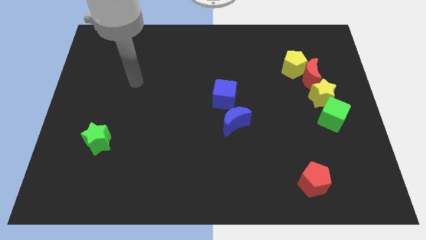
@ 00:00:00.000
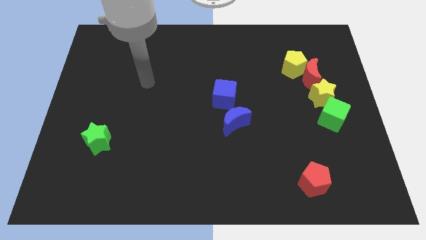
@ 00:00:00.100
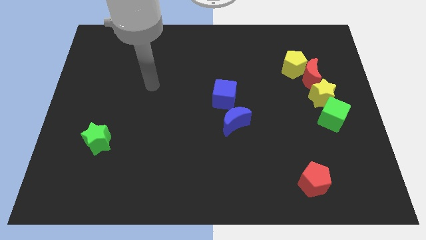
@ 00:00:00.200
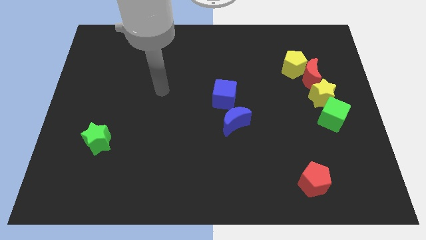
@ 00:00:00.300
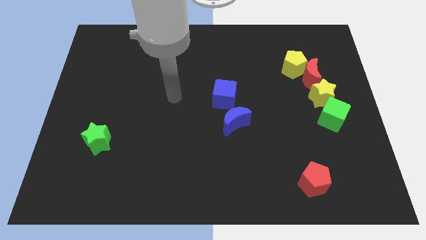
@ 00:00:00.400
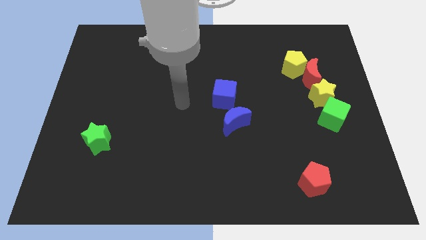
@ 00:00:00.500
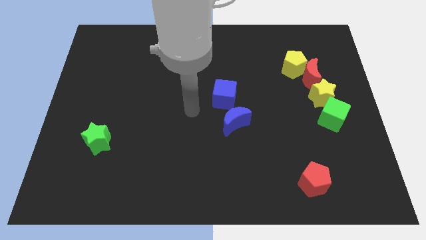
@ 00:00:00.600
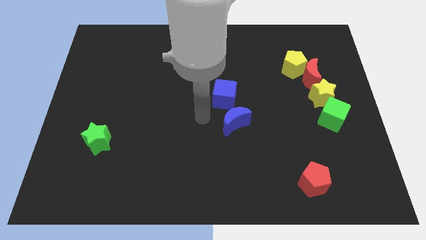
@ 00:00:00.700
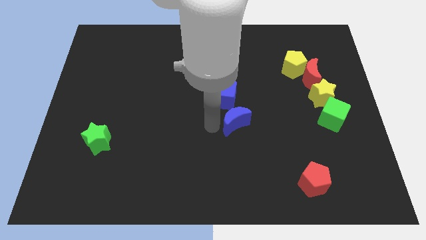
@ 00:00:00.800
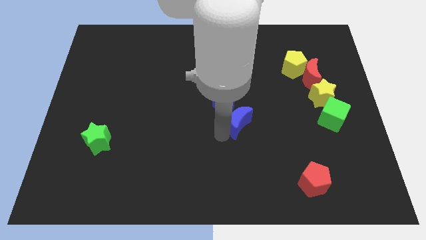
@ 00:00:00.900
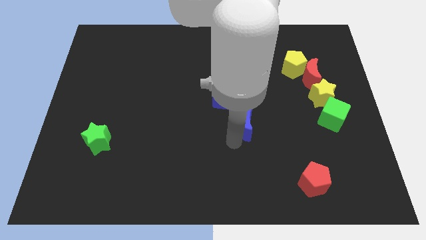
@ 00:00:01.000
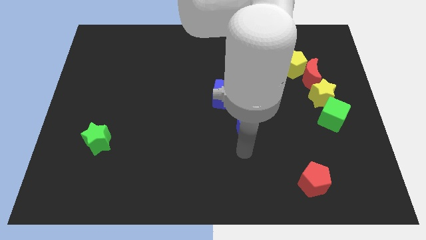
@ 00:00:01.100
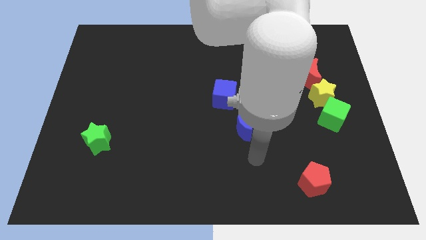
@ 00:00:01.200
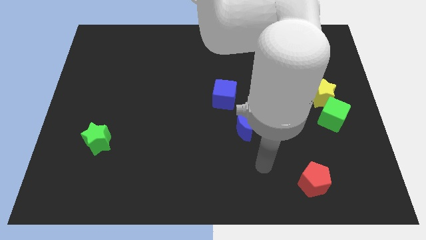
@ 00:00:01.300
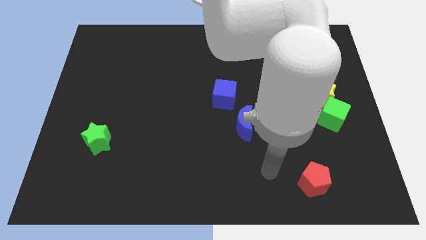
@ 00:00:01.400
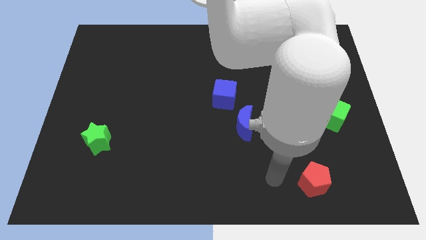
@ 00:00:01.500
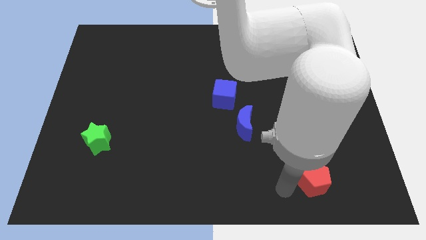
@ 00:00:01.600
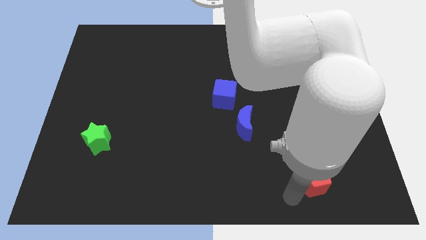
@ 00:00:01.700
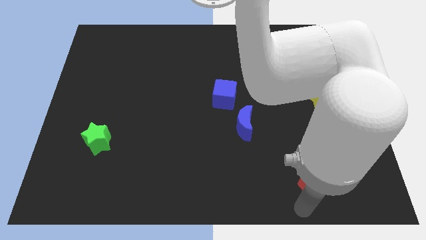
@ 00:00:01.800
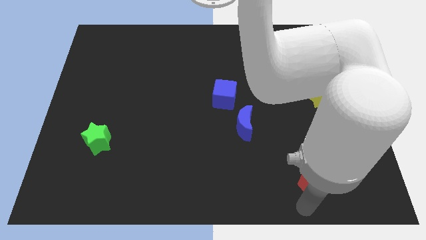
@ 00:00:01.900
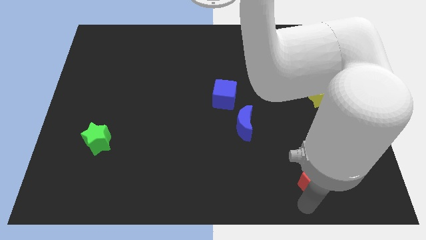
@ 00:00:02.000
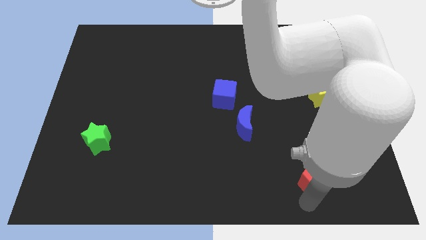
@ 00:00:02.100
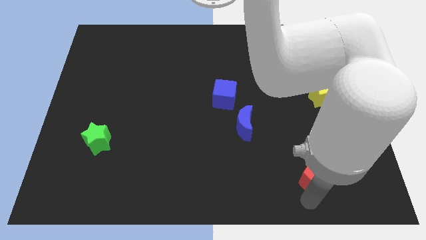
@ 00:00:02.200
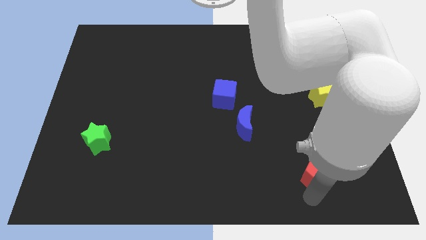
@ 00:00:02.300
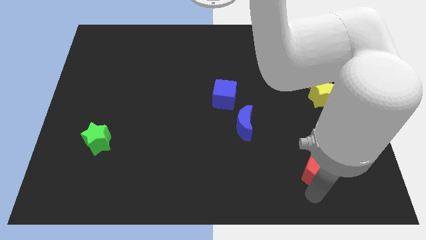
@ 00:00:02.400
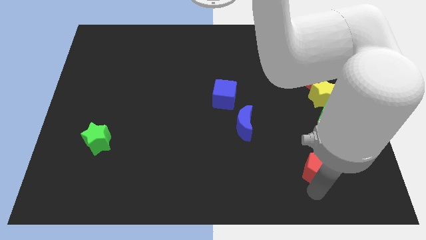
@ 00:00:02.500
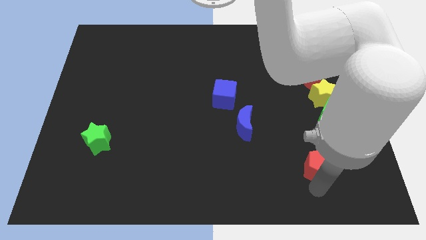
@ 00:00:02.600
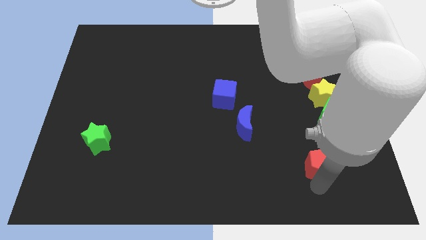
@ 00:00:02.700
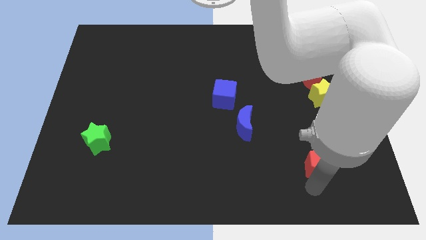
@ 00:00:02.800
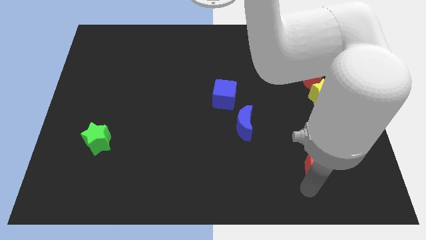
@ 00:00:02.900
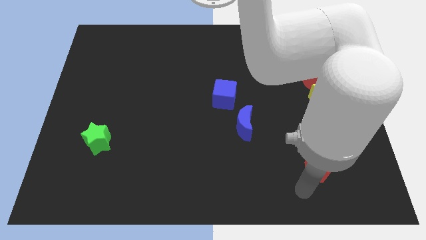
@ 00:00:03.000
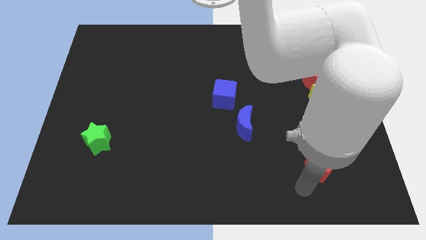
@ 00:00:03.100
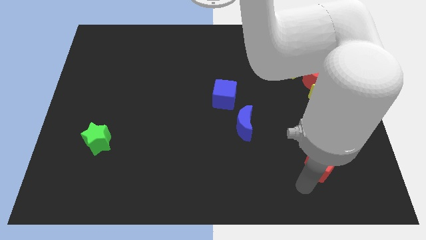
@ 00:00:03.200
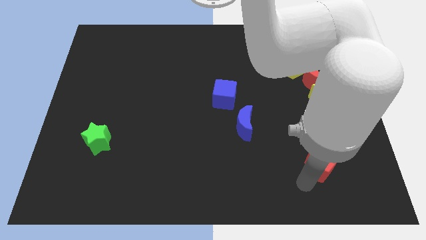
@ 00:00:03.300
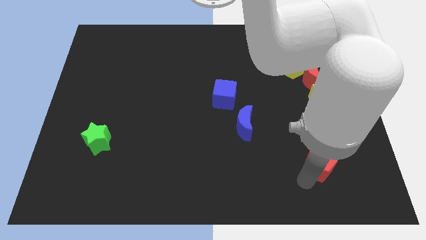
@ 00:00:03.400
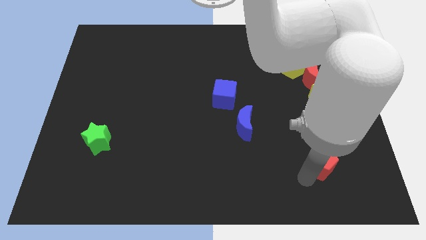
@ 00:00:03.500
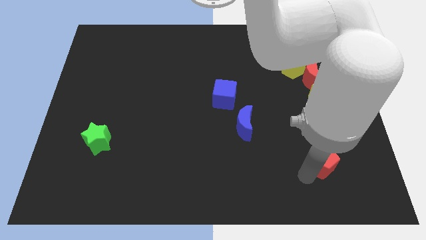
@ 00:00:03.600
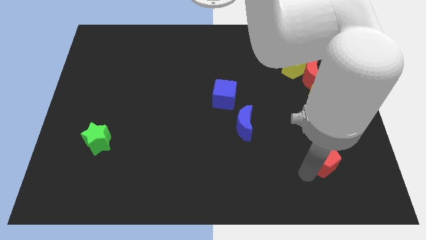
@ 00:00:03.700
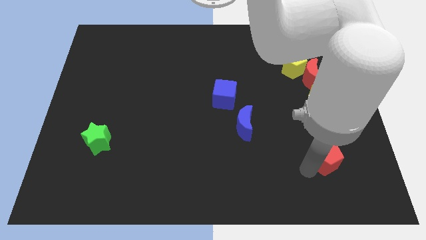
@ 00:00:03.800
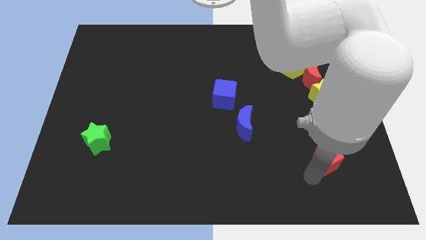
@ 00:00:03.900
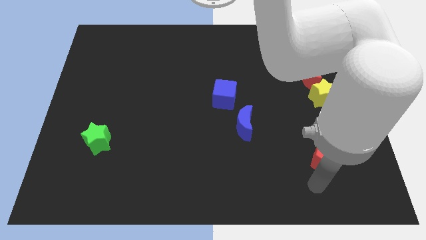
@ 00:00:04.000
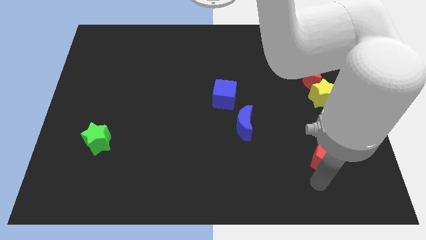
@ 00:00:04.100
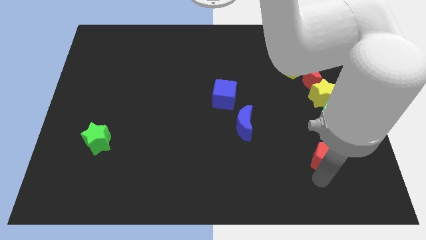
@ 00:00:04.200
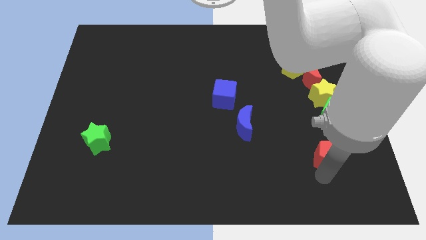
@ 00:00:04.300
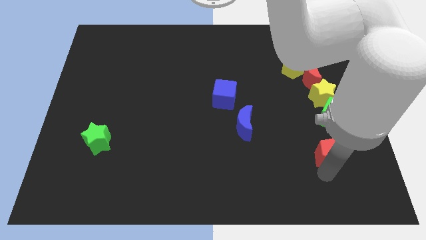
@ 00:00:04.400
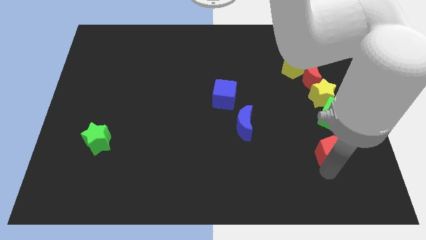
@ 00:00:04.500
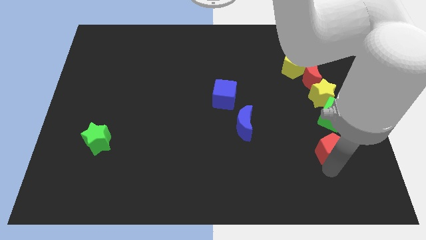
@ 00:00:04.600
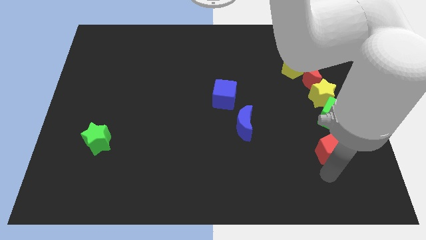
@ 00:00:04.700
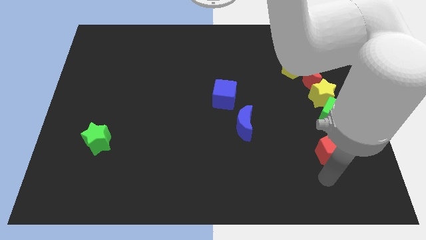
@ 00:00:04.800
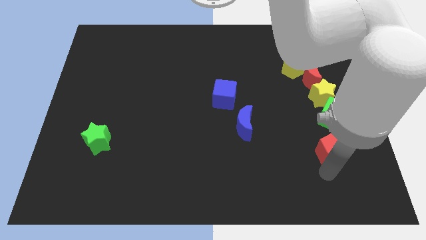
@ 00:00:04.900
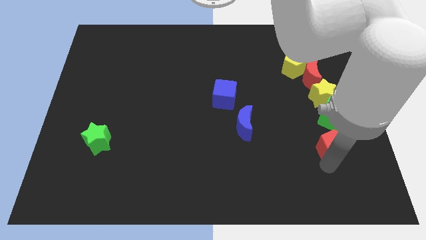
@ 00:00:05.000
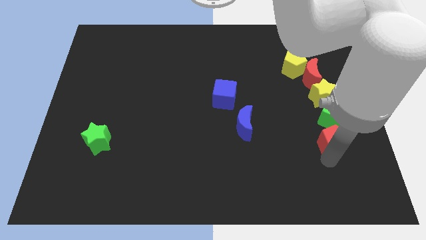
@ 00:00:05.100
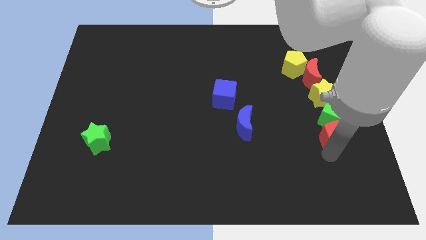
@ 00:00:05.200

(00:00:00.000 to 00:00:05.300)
move the red pentagon to the green cube

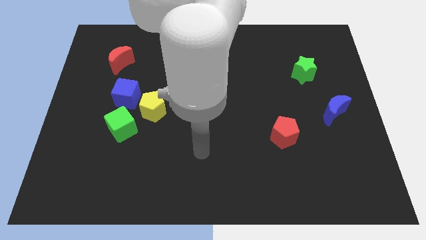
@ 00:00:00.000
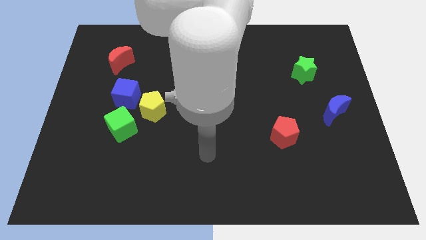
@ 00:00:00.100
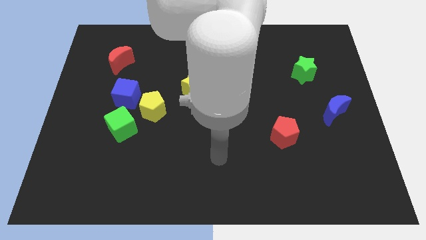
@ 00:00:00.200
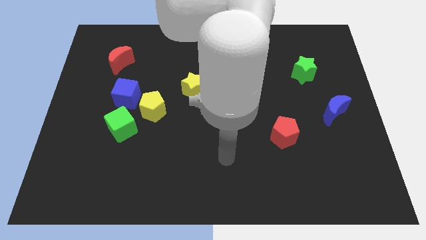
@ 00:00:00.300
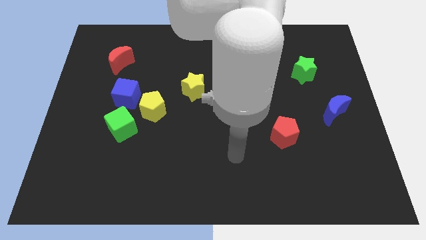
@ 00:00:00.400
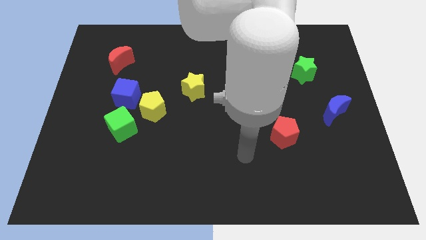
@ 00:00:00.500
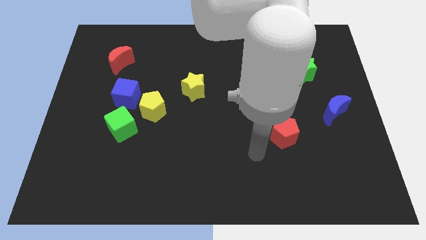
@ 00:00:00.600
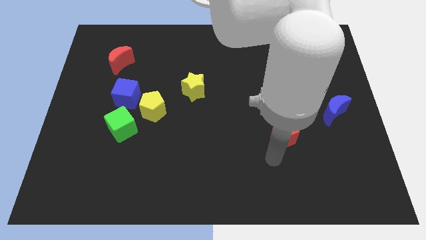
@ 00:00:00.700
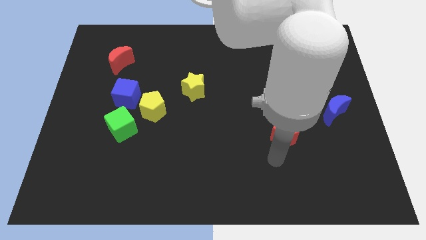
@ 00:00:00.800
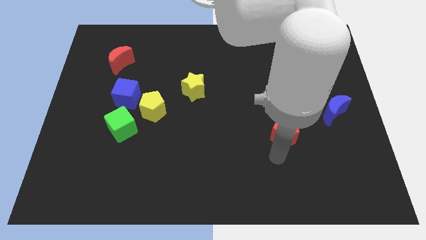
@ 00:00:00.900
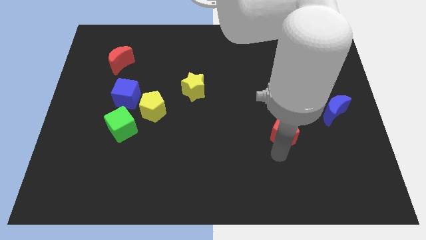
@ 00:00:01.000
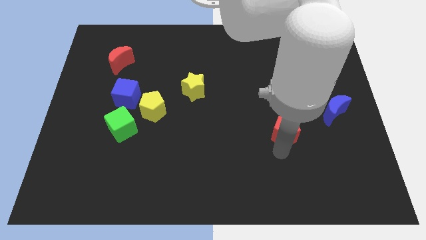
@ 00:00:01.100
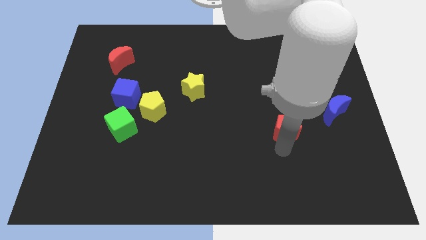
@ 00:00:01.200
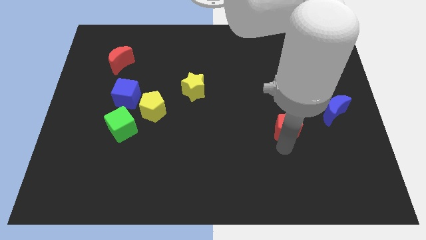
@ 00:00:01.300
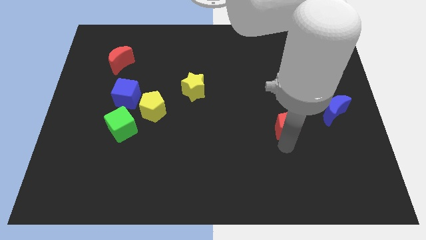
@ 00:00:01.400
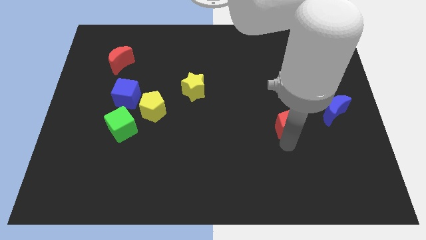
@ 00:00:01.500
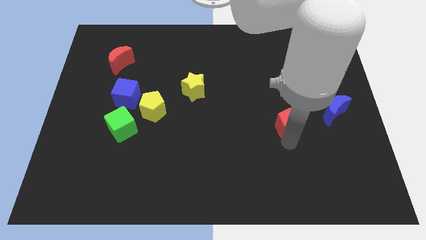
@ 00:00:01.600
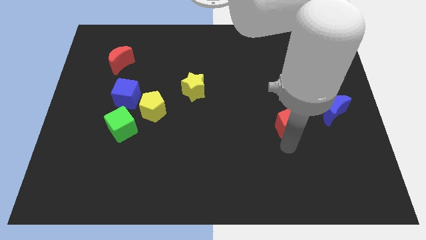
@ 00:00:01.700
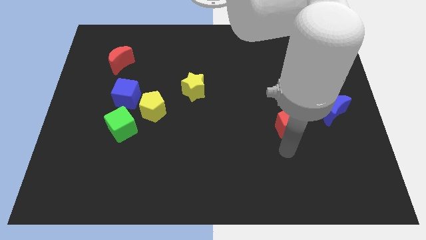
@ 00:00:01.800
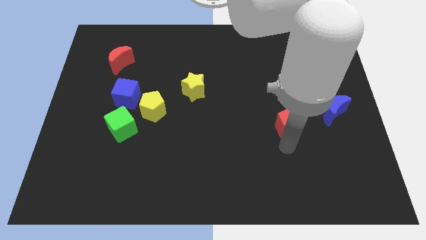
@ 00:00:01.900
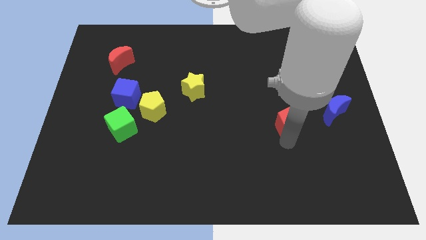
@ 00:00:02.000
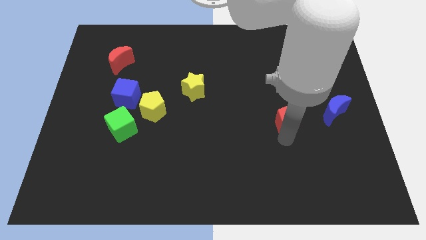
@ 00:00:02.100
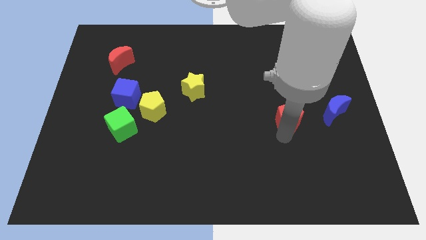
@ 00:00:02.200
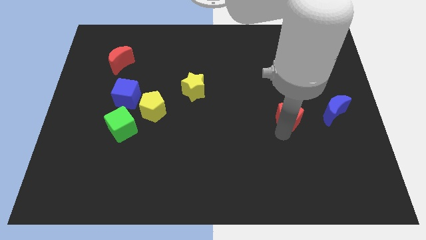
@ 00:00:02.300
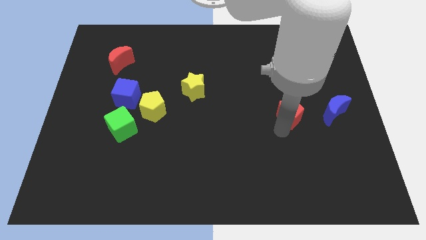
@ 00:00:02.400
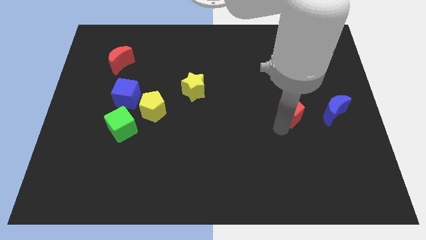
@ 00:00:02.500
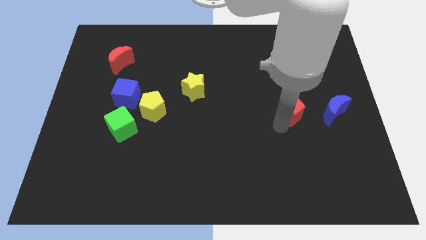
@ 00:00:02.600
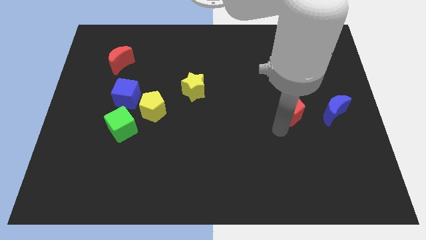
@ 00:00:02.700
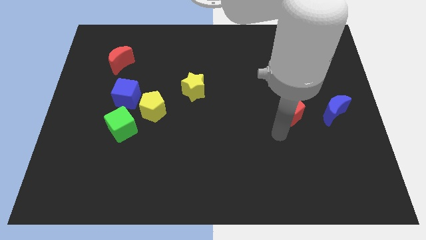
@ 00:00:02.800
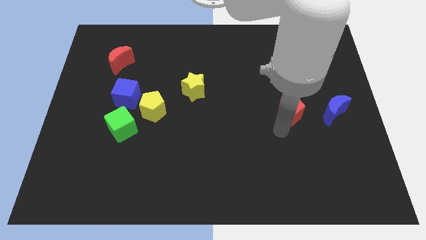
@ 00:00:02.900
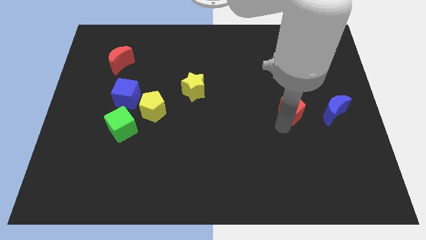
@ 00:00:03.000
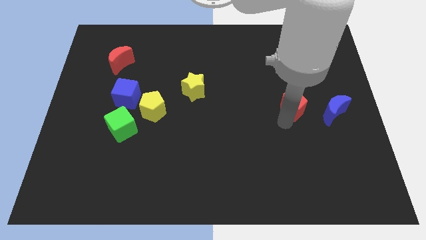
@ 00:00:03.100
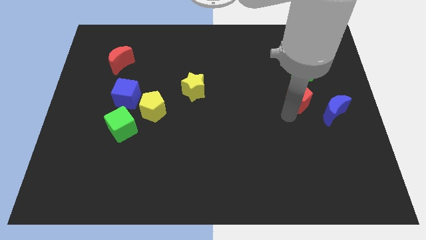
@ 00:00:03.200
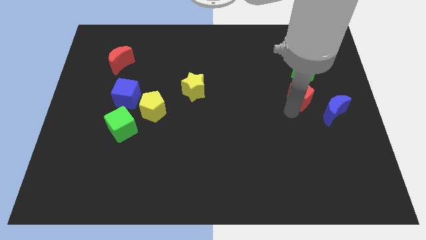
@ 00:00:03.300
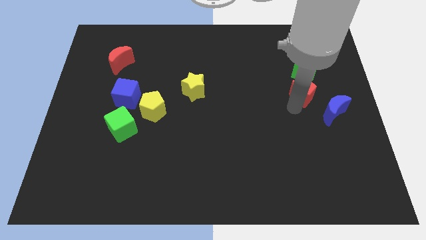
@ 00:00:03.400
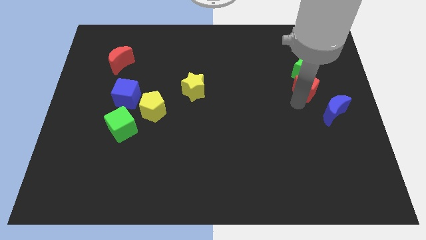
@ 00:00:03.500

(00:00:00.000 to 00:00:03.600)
move the red pentagon to the green star
